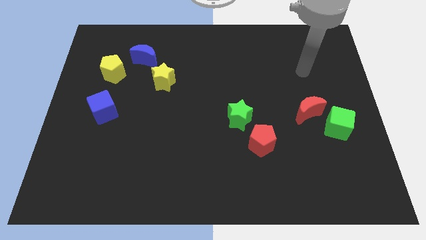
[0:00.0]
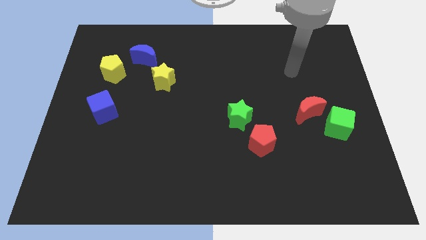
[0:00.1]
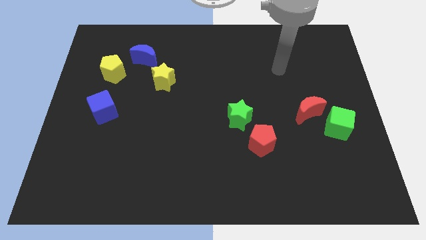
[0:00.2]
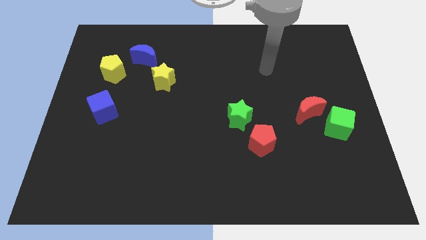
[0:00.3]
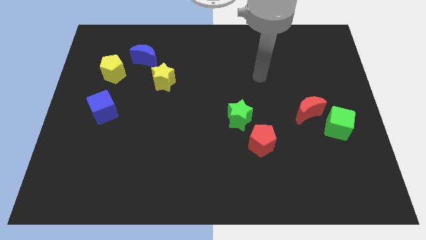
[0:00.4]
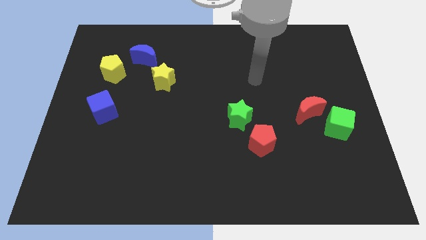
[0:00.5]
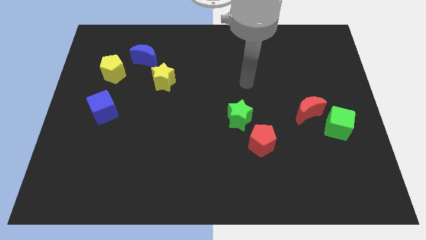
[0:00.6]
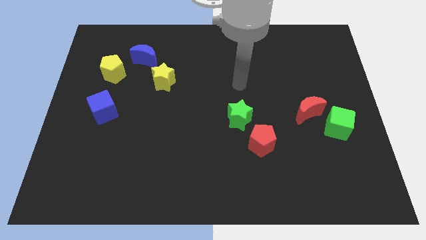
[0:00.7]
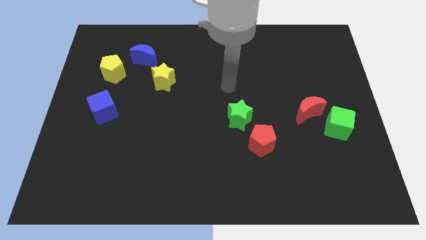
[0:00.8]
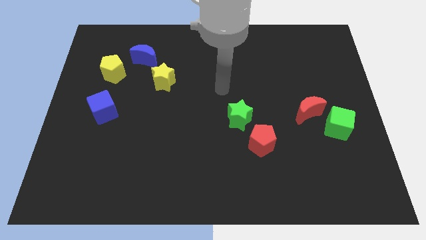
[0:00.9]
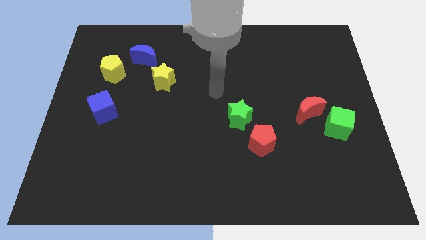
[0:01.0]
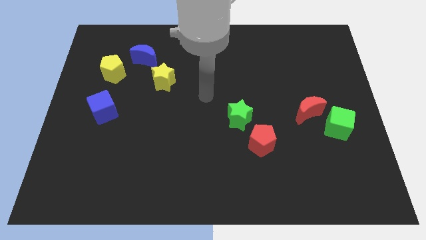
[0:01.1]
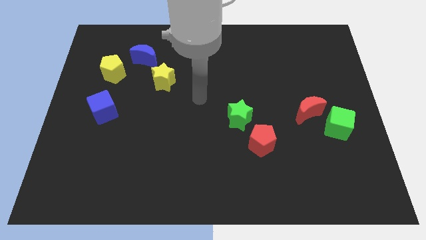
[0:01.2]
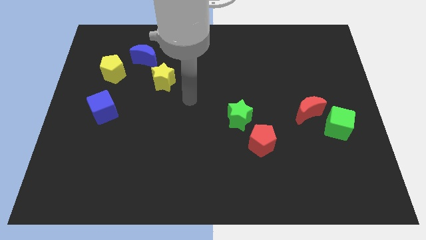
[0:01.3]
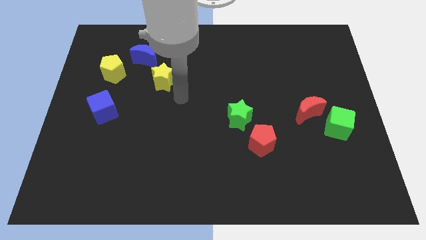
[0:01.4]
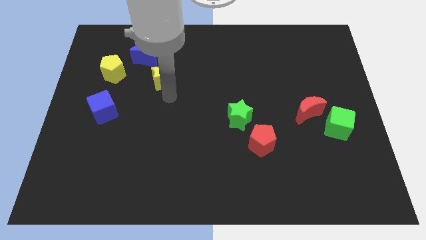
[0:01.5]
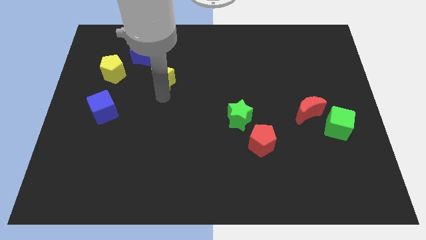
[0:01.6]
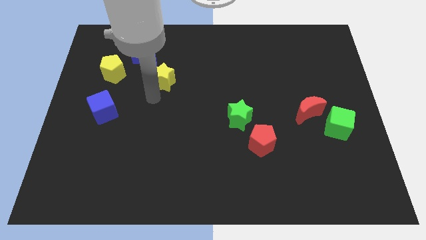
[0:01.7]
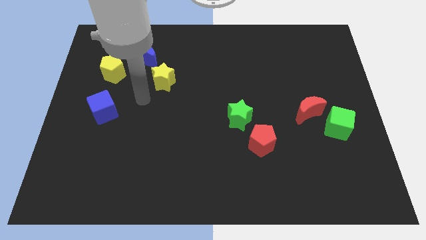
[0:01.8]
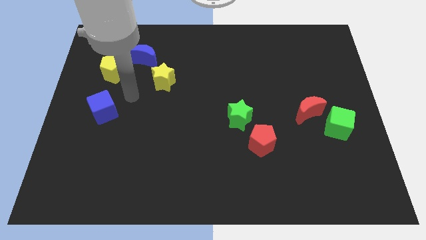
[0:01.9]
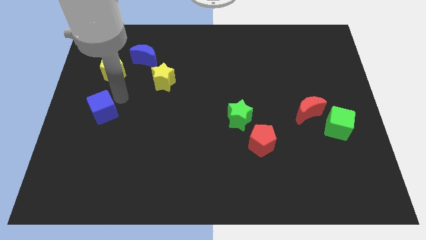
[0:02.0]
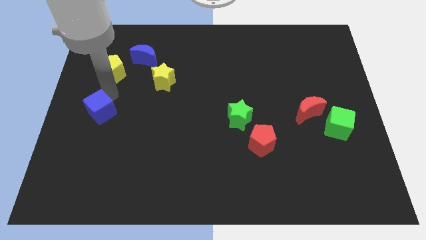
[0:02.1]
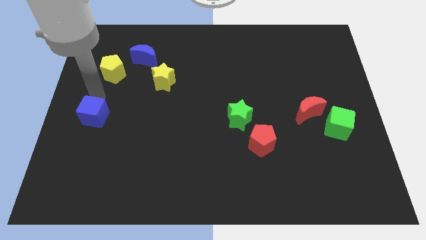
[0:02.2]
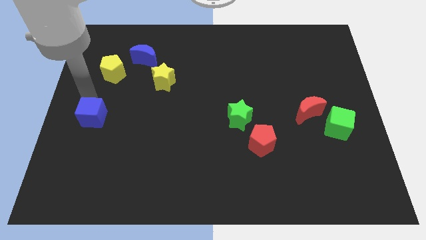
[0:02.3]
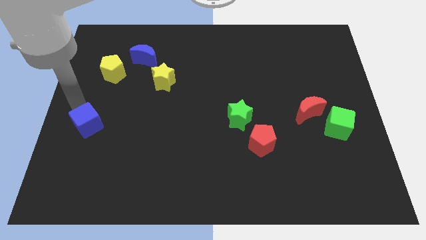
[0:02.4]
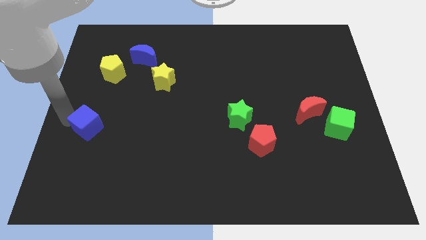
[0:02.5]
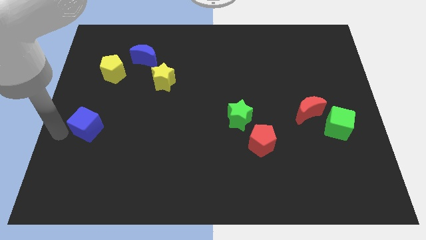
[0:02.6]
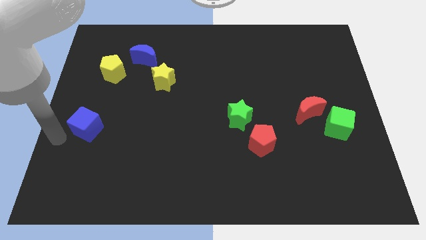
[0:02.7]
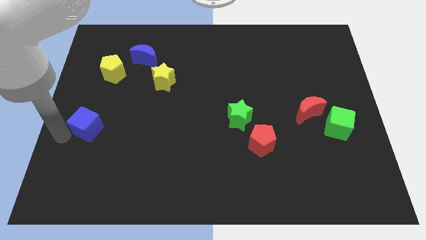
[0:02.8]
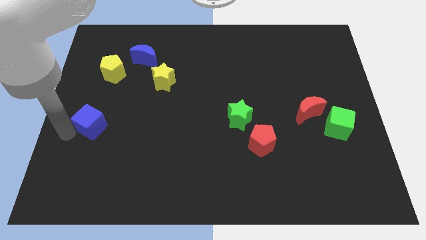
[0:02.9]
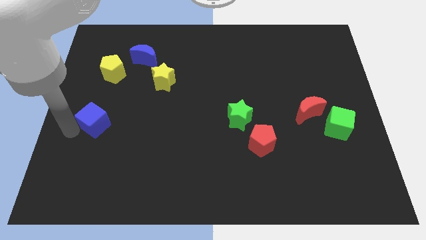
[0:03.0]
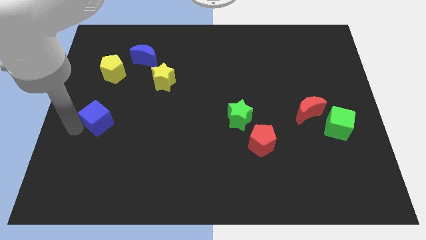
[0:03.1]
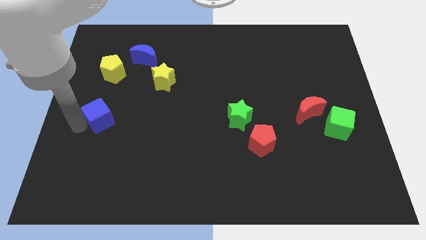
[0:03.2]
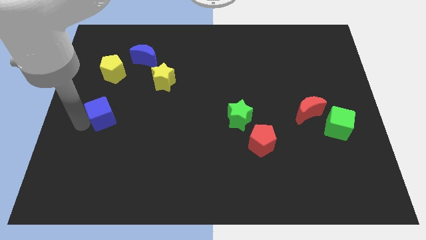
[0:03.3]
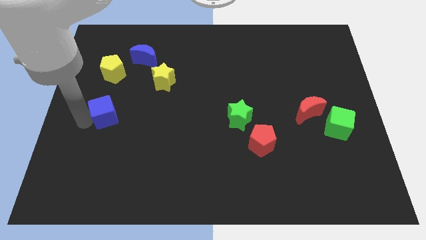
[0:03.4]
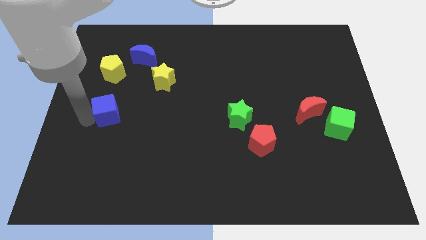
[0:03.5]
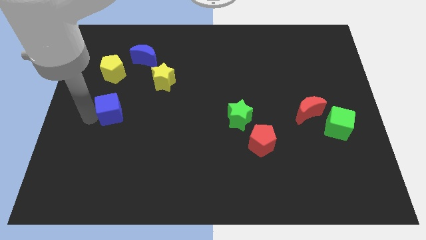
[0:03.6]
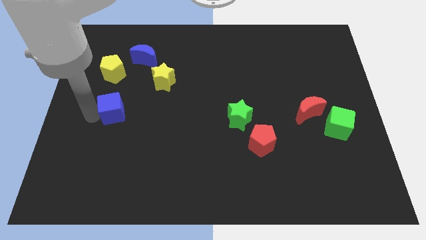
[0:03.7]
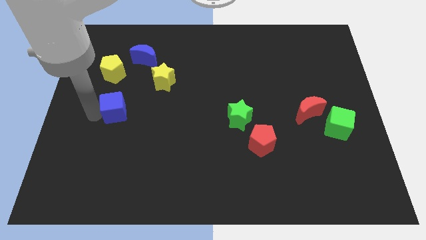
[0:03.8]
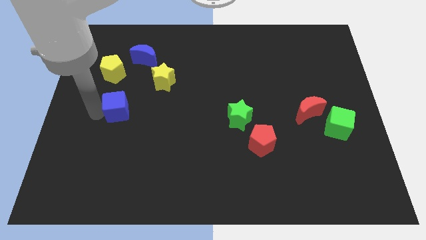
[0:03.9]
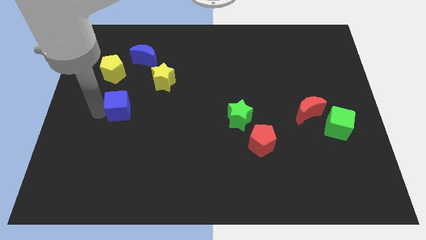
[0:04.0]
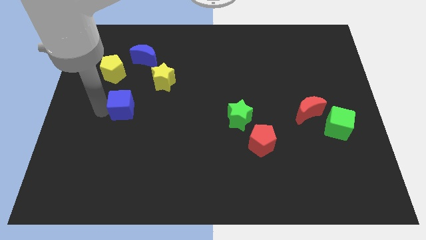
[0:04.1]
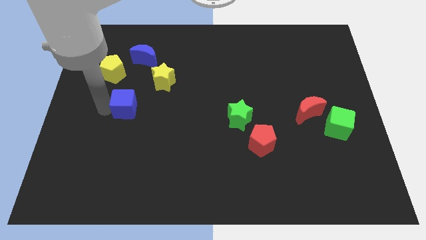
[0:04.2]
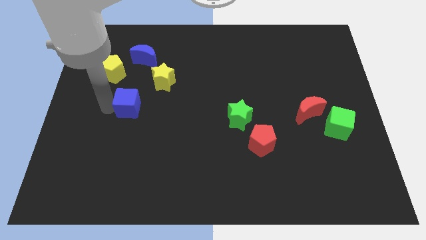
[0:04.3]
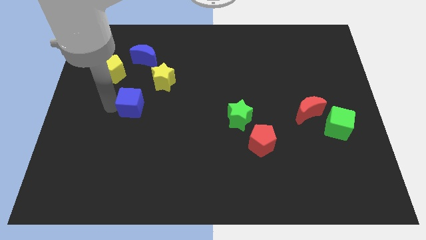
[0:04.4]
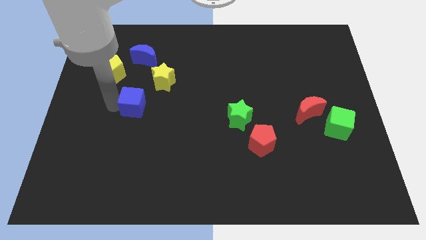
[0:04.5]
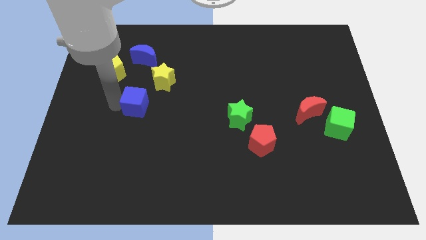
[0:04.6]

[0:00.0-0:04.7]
slightly push the blue cube to the right

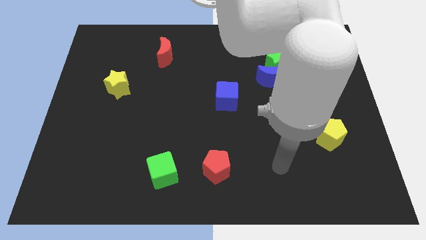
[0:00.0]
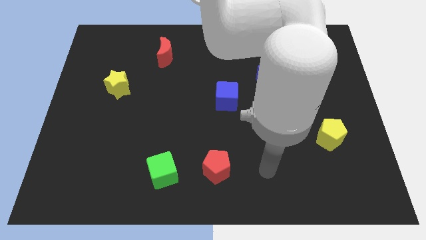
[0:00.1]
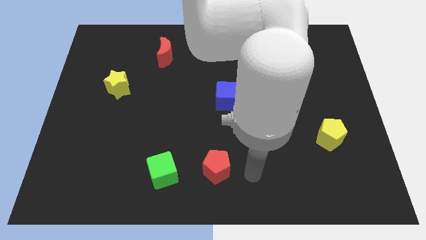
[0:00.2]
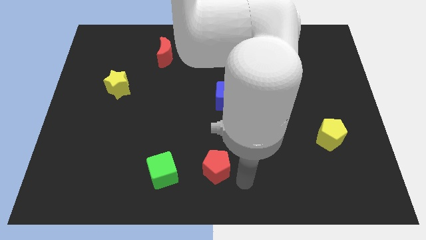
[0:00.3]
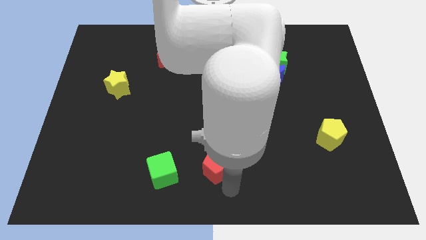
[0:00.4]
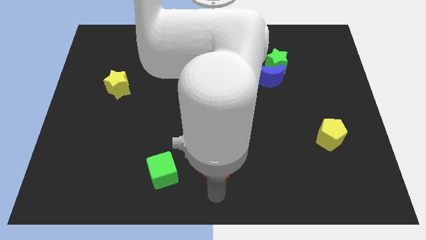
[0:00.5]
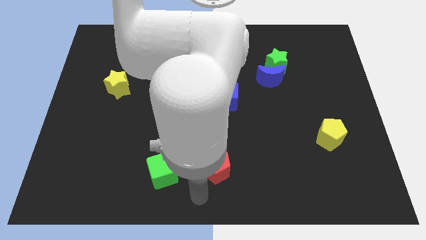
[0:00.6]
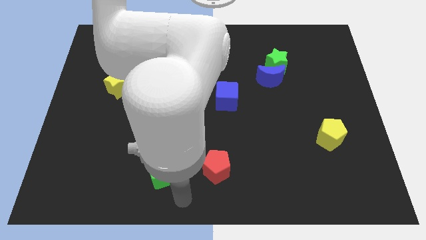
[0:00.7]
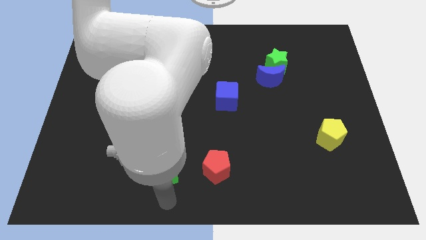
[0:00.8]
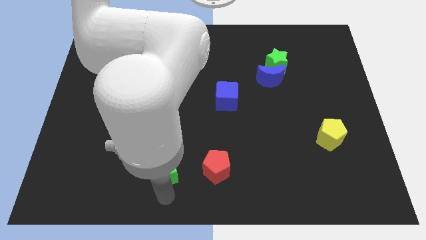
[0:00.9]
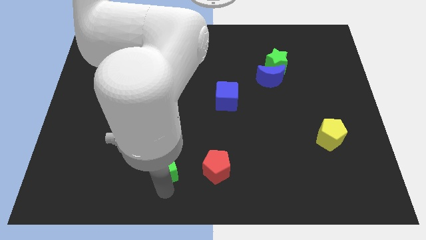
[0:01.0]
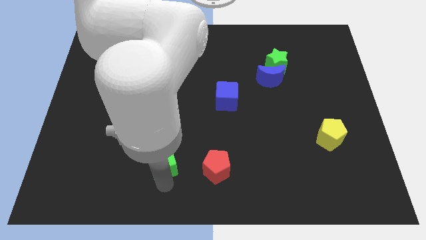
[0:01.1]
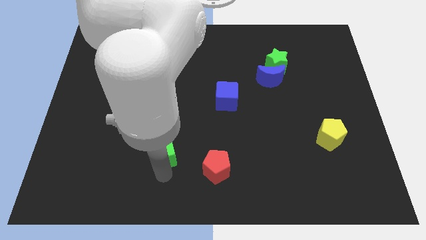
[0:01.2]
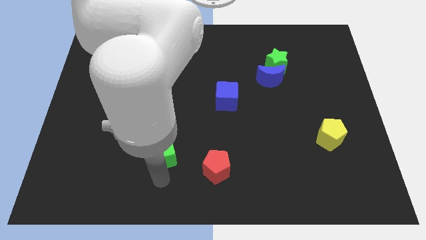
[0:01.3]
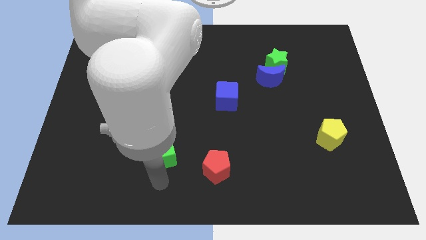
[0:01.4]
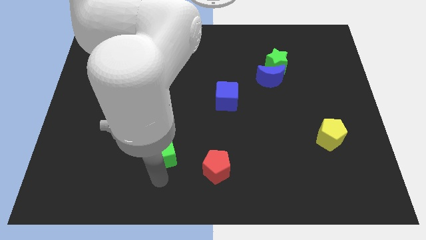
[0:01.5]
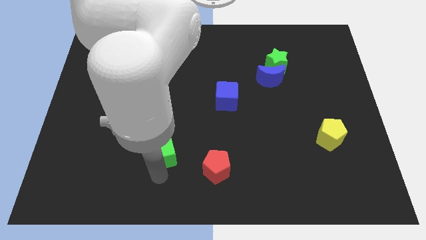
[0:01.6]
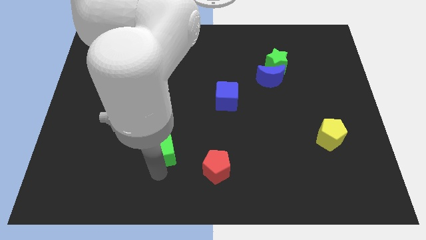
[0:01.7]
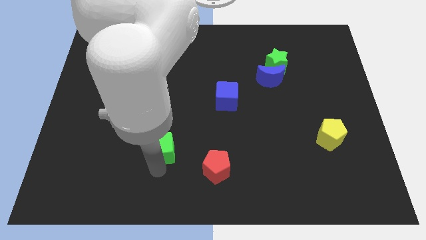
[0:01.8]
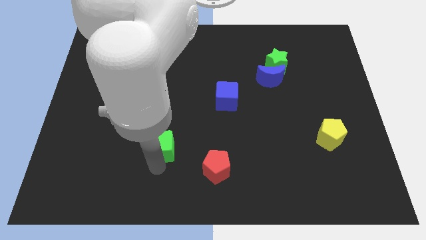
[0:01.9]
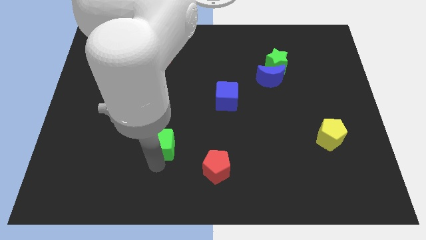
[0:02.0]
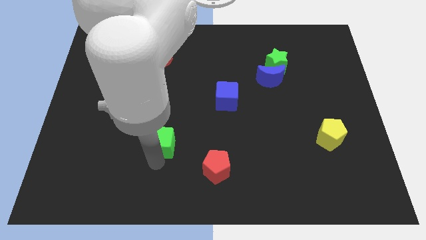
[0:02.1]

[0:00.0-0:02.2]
slightly slide the green cube up

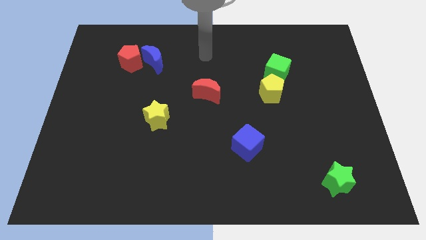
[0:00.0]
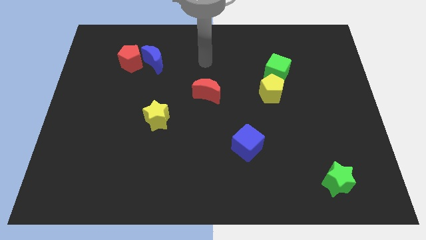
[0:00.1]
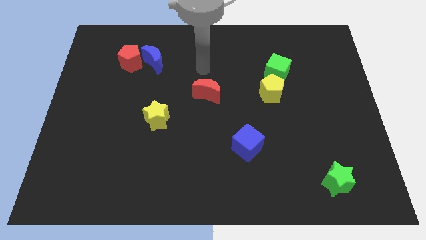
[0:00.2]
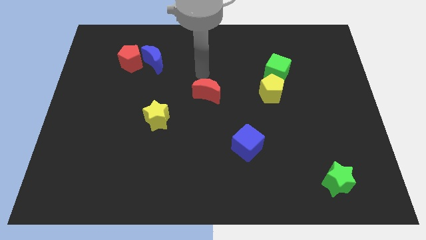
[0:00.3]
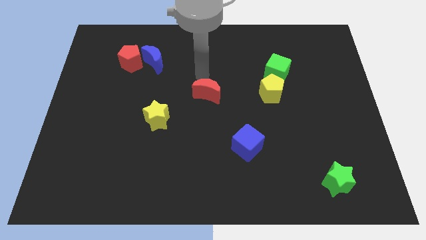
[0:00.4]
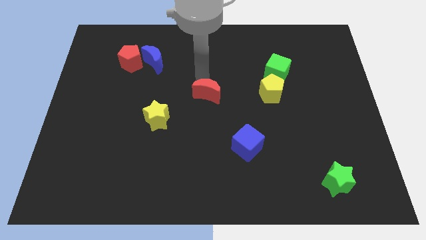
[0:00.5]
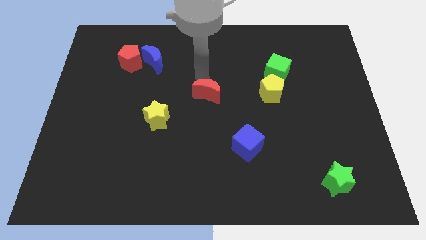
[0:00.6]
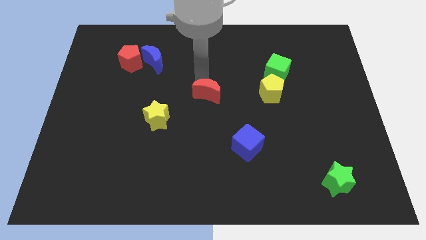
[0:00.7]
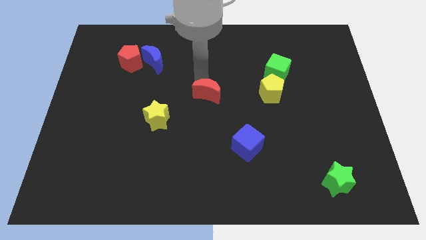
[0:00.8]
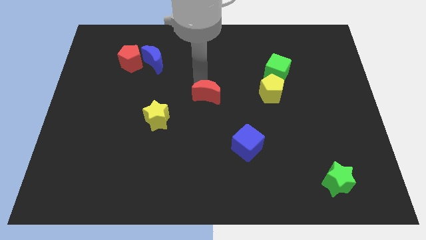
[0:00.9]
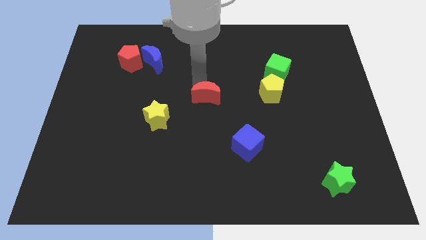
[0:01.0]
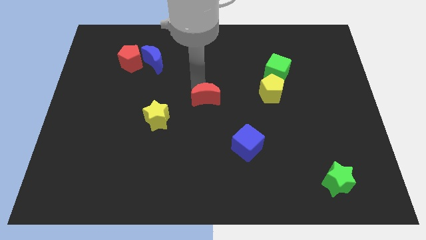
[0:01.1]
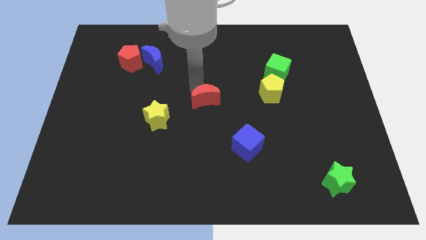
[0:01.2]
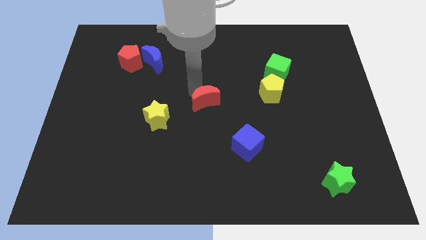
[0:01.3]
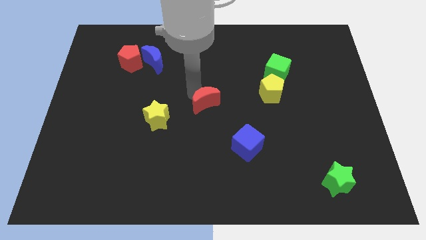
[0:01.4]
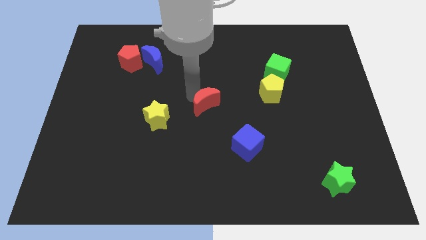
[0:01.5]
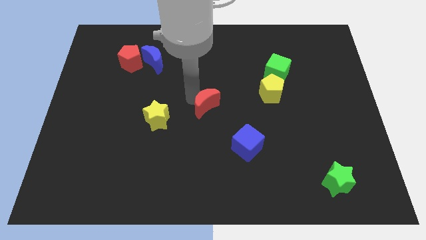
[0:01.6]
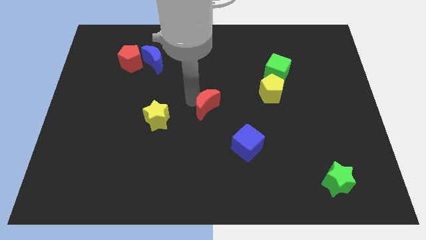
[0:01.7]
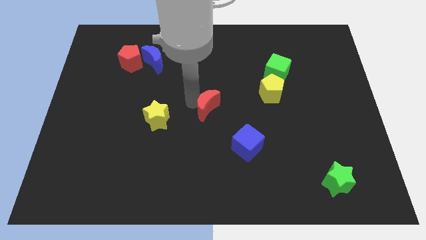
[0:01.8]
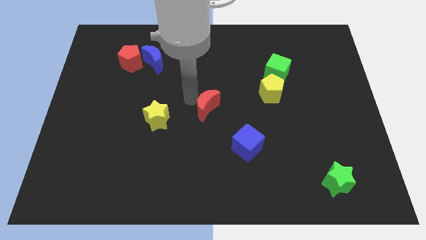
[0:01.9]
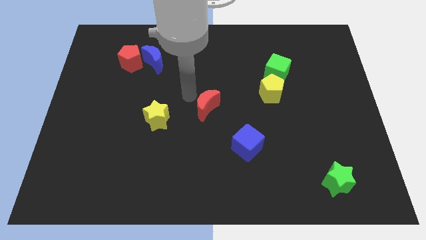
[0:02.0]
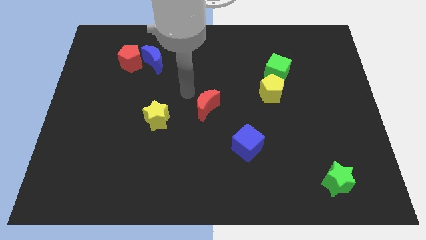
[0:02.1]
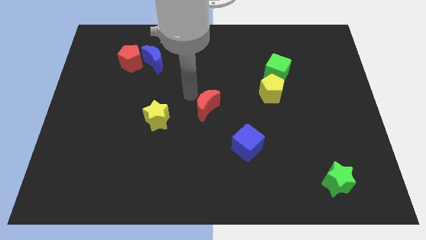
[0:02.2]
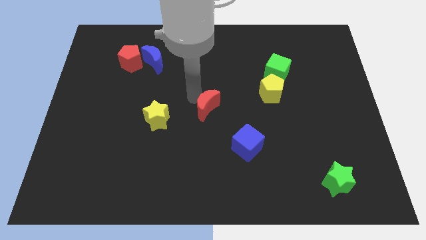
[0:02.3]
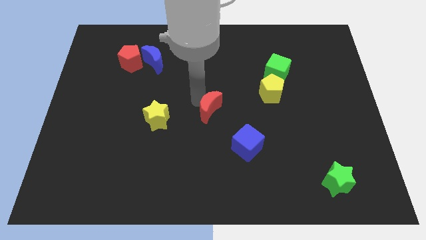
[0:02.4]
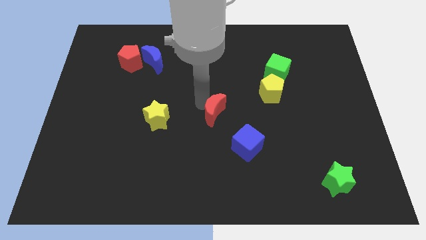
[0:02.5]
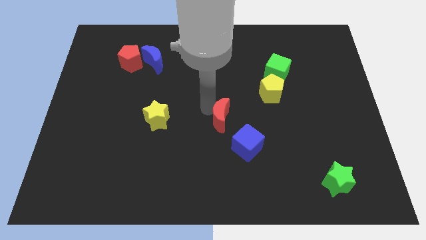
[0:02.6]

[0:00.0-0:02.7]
slightly move the red moon downwards and to the right diagonally
